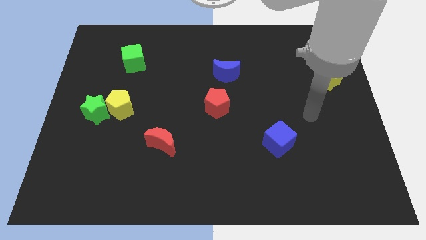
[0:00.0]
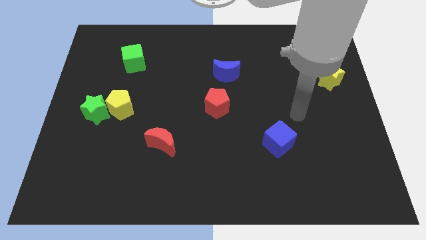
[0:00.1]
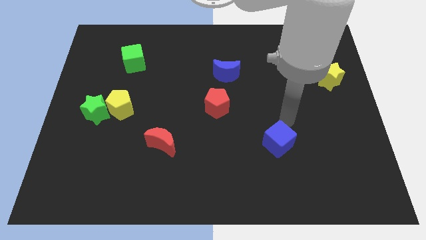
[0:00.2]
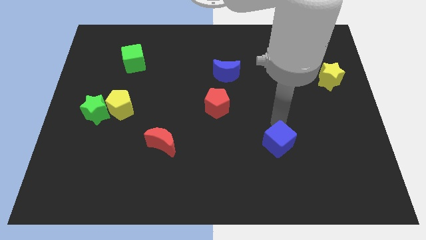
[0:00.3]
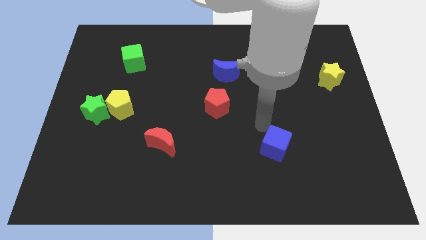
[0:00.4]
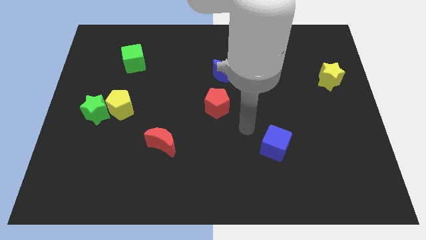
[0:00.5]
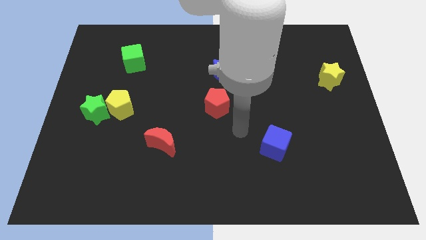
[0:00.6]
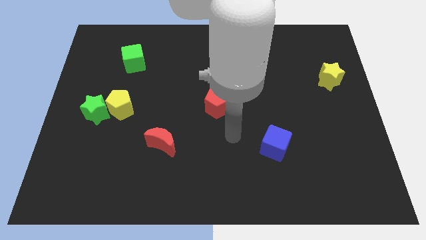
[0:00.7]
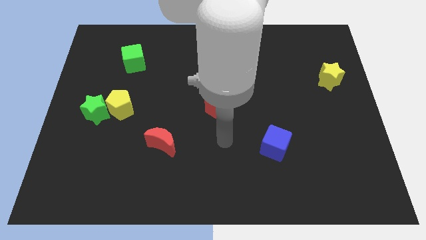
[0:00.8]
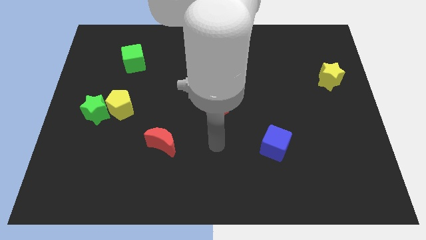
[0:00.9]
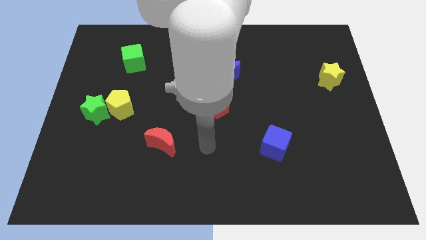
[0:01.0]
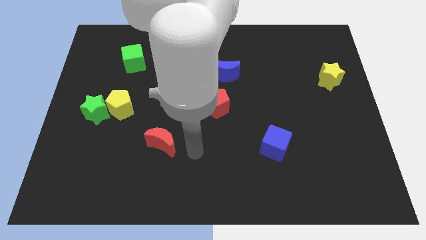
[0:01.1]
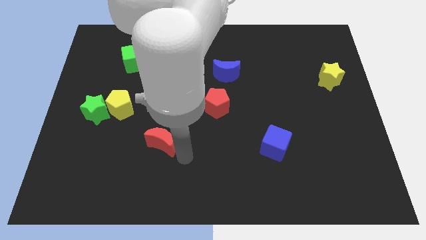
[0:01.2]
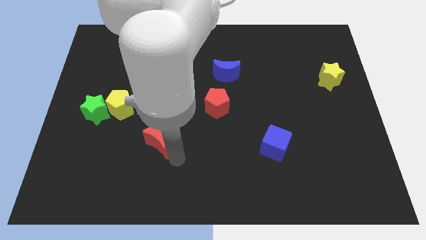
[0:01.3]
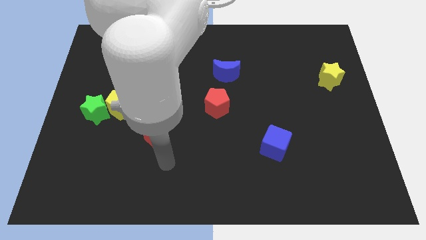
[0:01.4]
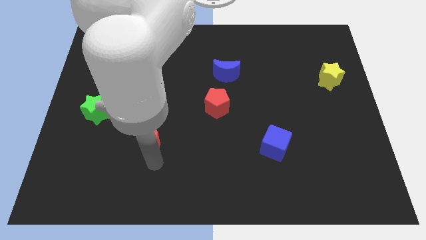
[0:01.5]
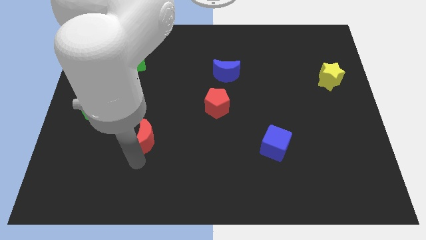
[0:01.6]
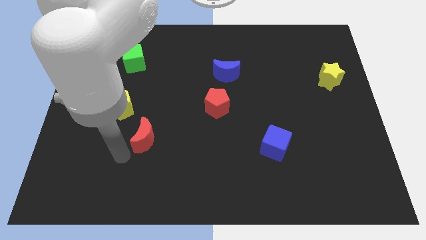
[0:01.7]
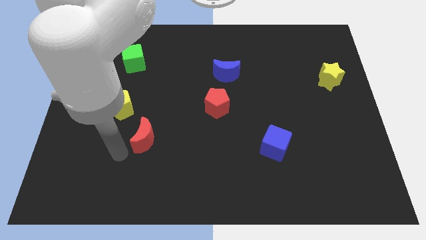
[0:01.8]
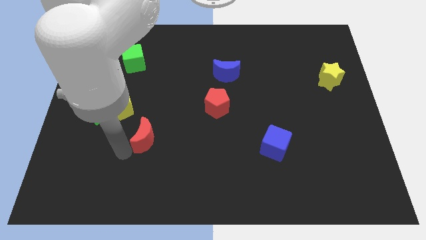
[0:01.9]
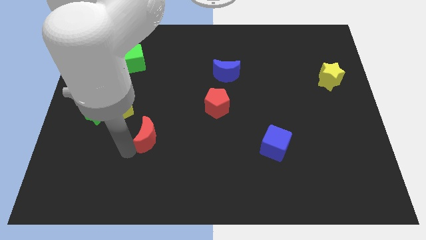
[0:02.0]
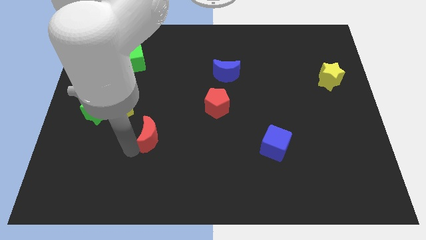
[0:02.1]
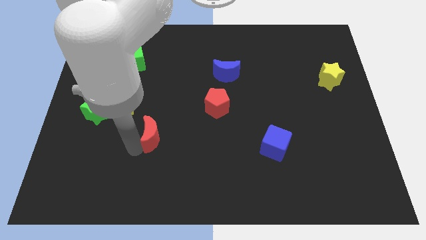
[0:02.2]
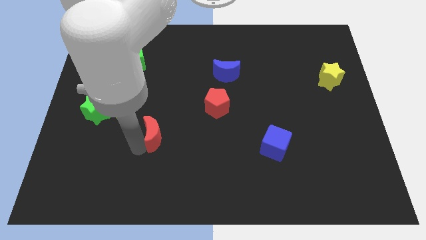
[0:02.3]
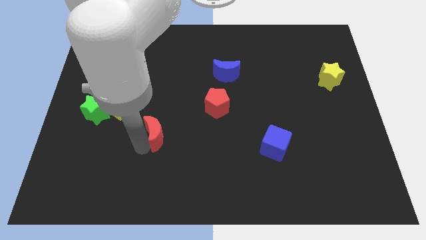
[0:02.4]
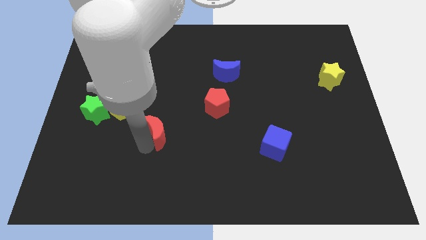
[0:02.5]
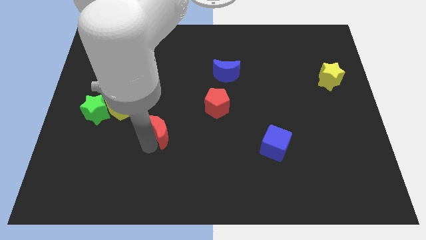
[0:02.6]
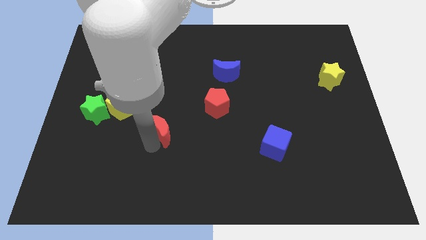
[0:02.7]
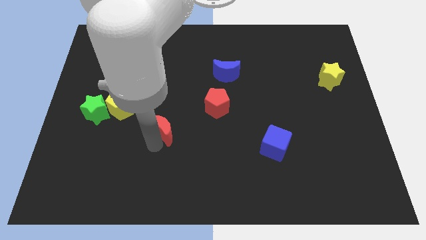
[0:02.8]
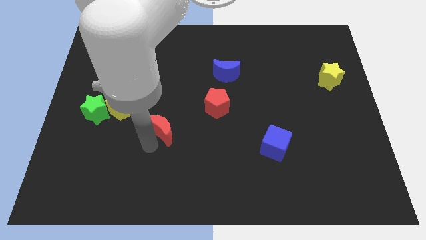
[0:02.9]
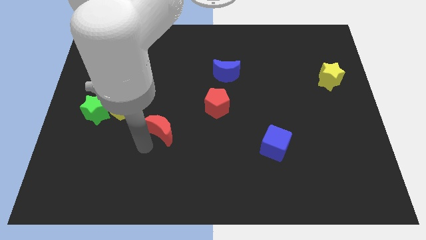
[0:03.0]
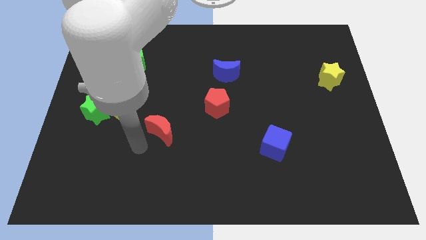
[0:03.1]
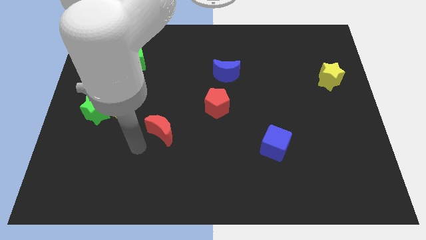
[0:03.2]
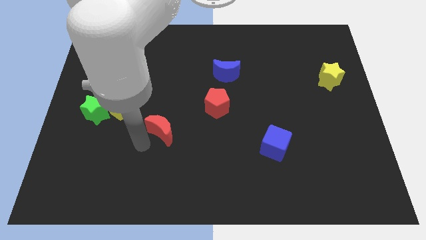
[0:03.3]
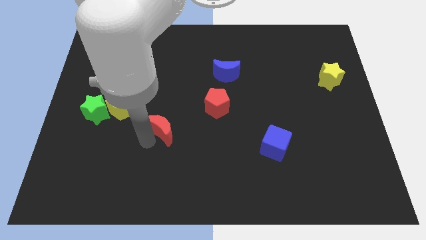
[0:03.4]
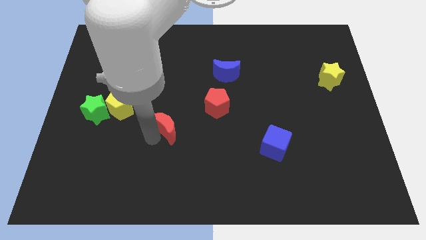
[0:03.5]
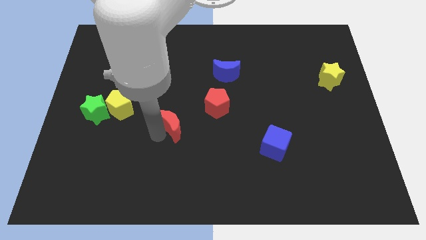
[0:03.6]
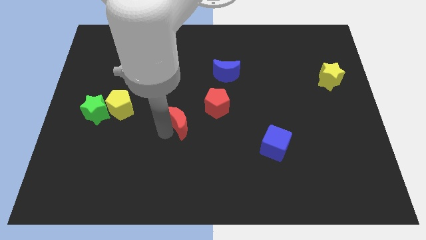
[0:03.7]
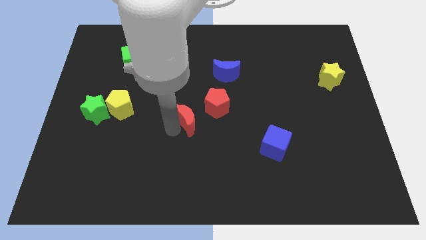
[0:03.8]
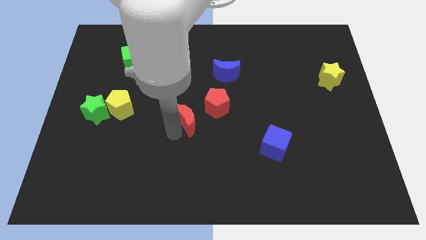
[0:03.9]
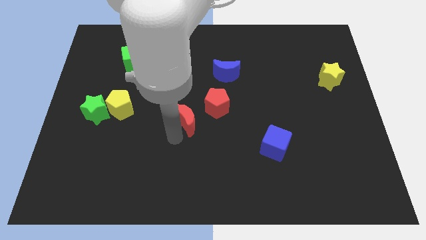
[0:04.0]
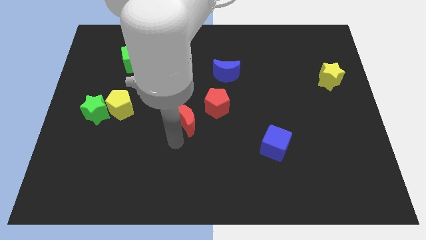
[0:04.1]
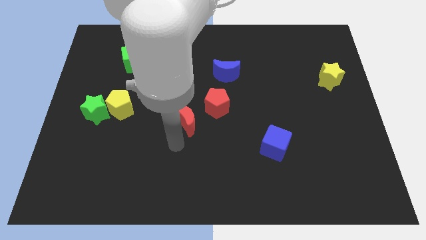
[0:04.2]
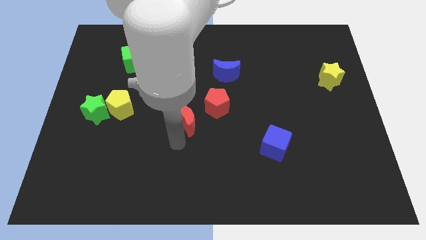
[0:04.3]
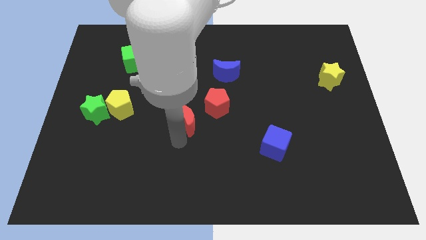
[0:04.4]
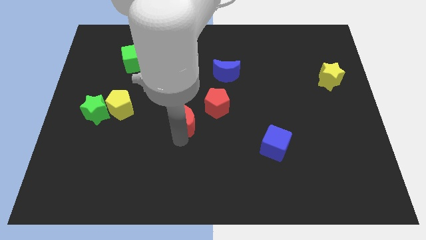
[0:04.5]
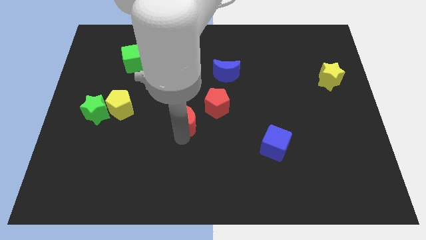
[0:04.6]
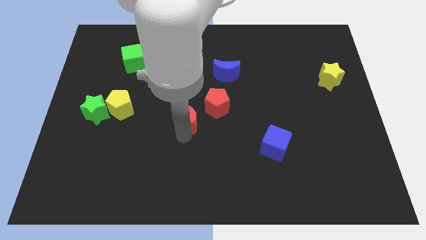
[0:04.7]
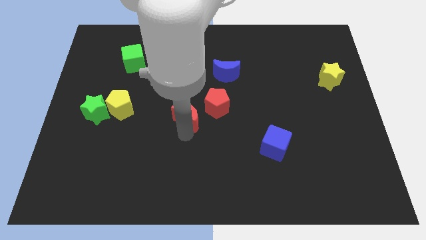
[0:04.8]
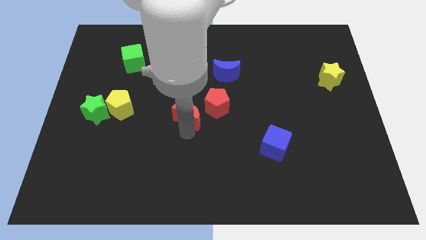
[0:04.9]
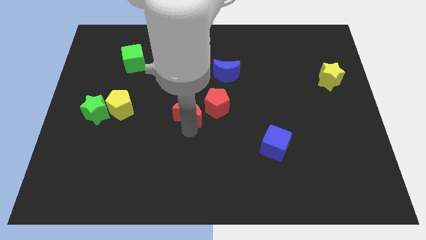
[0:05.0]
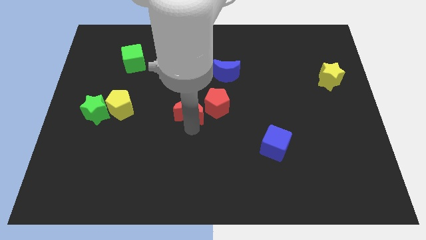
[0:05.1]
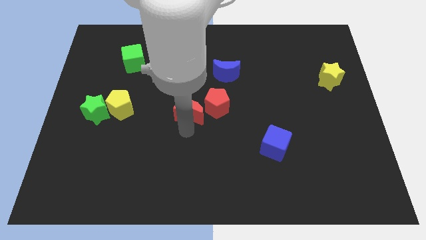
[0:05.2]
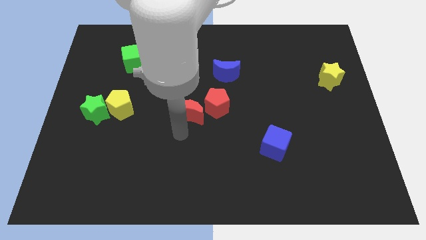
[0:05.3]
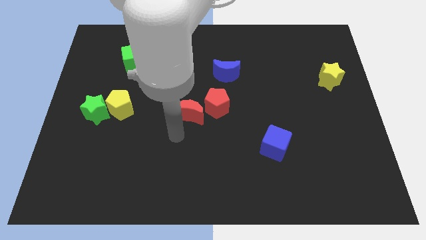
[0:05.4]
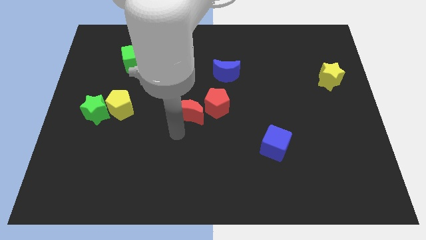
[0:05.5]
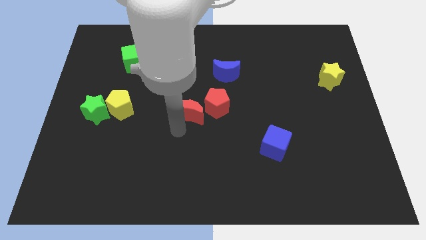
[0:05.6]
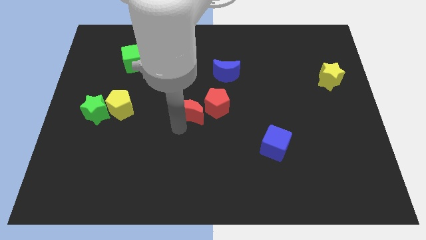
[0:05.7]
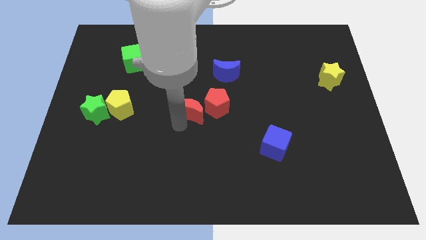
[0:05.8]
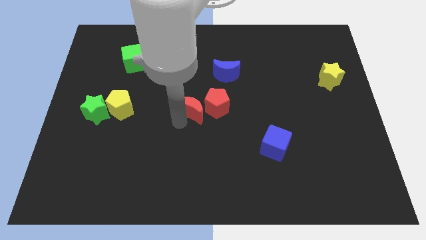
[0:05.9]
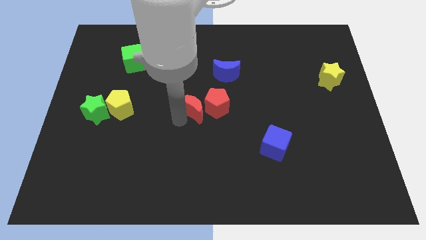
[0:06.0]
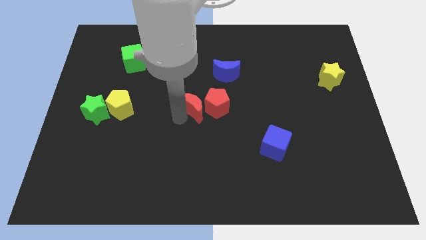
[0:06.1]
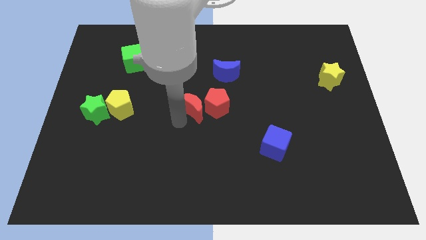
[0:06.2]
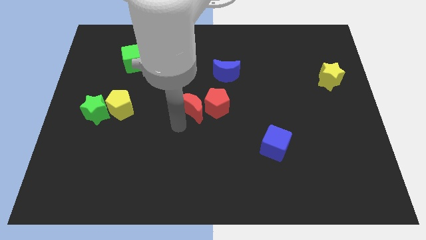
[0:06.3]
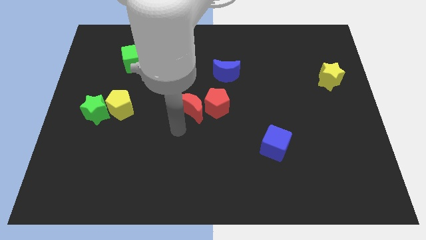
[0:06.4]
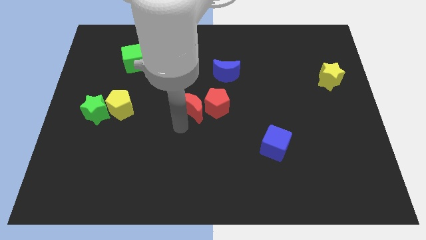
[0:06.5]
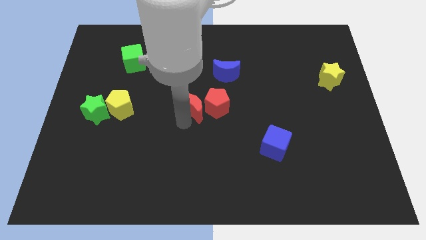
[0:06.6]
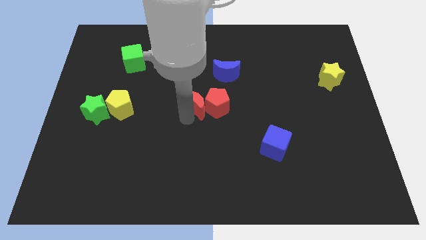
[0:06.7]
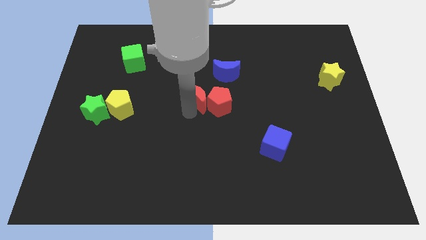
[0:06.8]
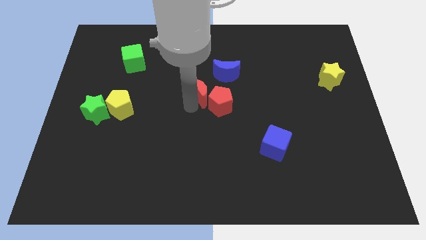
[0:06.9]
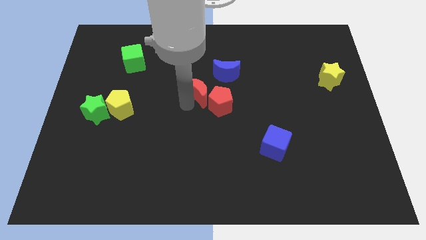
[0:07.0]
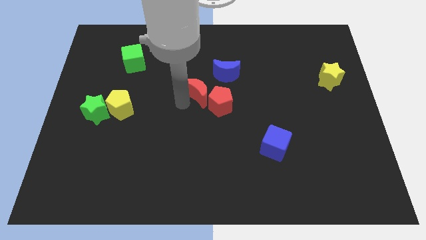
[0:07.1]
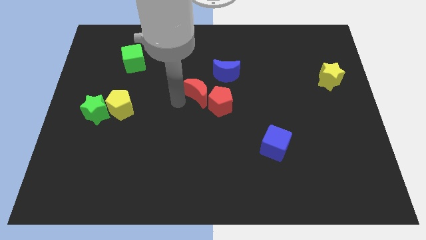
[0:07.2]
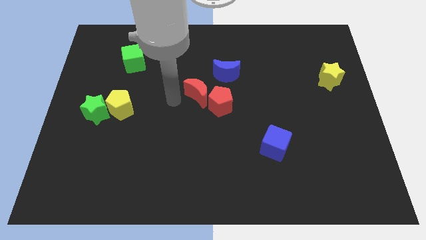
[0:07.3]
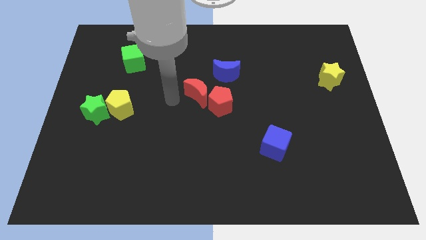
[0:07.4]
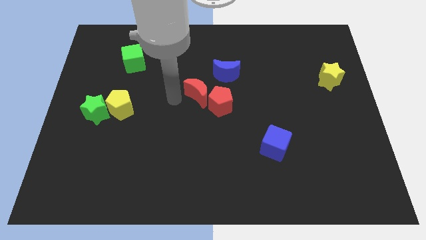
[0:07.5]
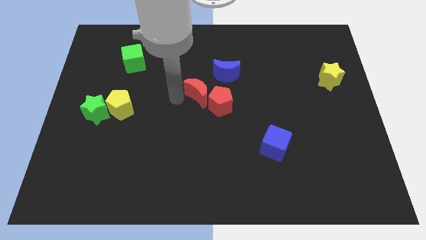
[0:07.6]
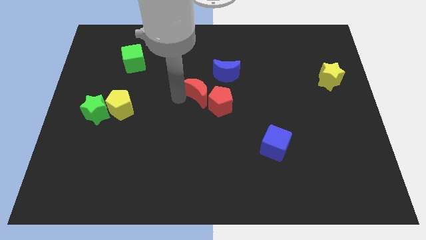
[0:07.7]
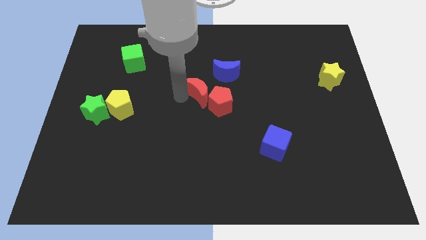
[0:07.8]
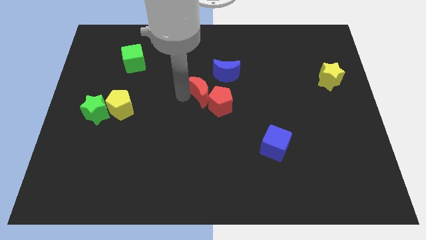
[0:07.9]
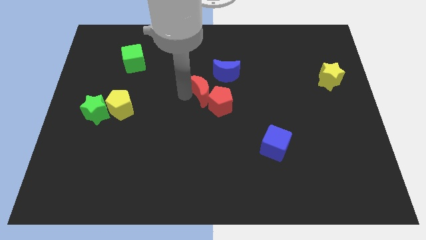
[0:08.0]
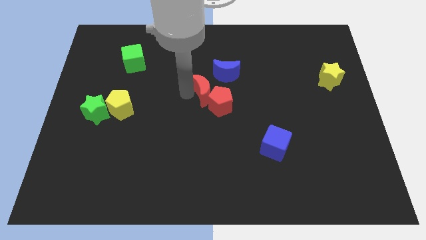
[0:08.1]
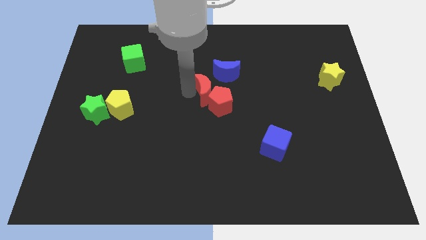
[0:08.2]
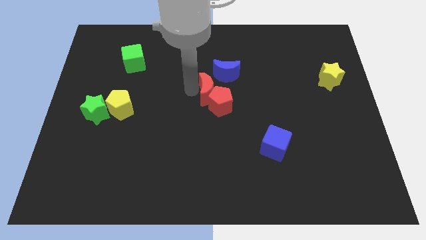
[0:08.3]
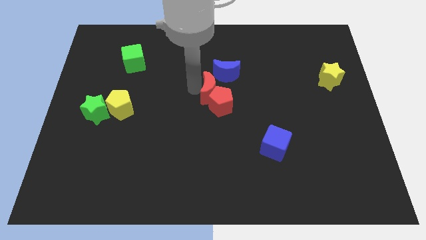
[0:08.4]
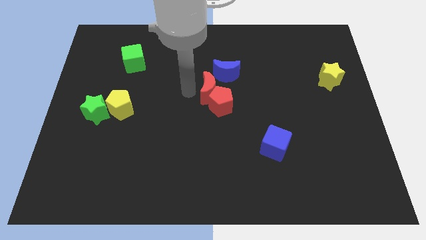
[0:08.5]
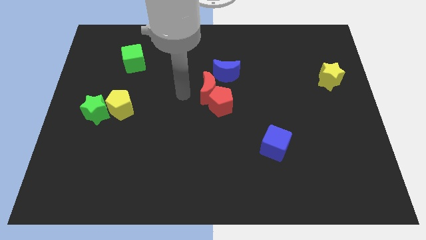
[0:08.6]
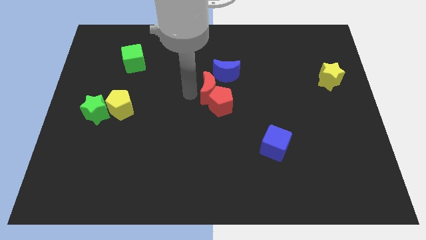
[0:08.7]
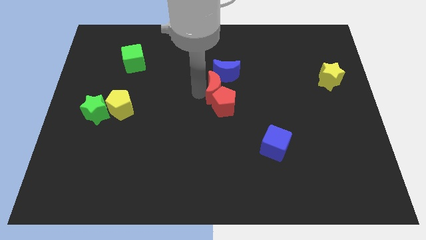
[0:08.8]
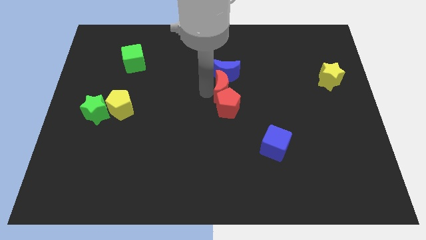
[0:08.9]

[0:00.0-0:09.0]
slide the red moon diagonally up and to the right of the red pentagon
